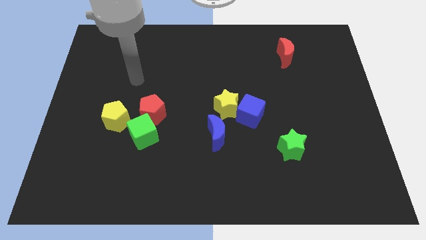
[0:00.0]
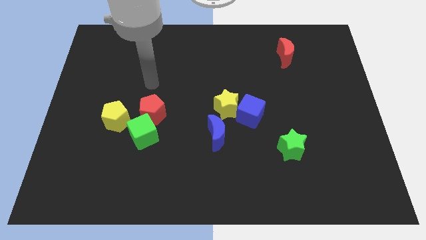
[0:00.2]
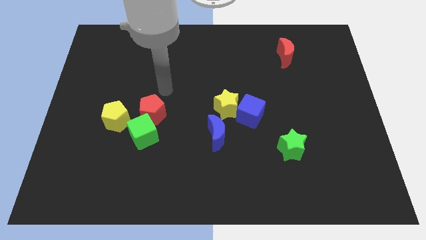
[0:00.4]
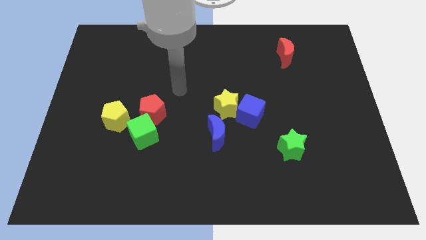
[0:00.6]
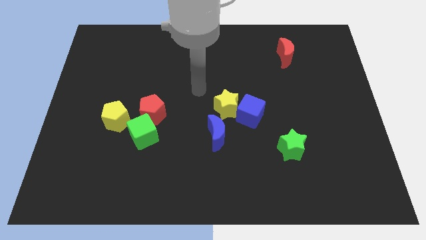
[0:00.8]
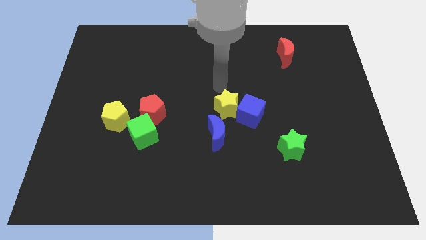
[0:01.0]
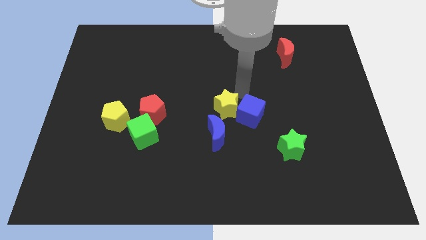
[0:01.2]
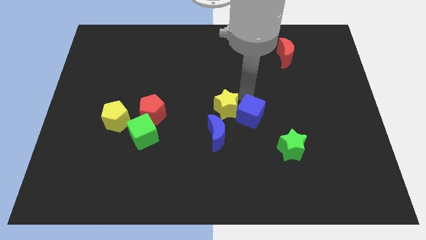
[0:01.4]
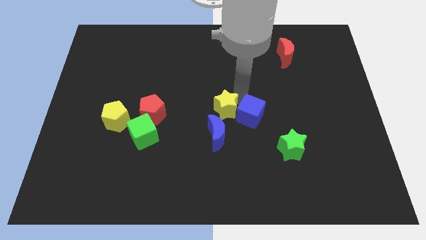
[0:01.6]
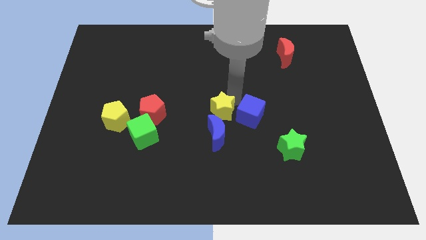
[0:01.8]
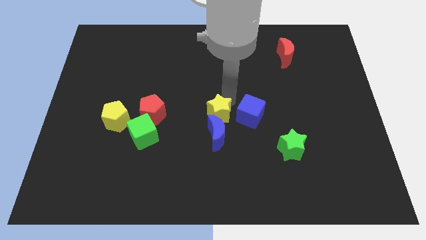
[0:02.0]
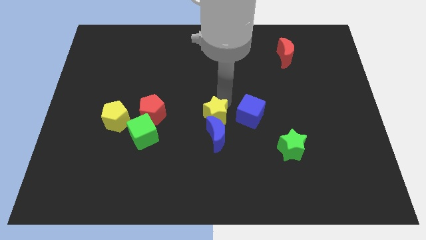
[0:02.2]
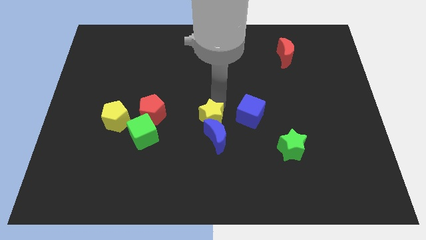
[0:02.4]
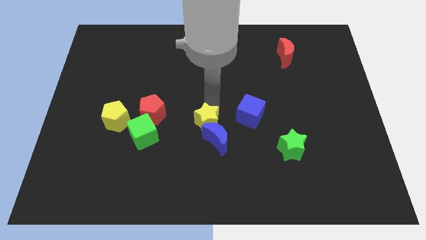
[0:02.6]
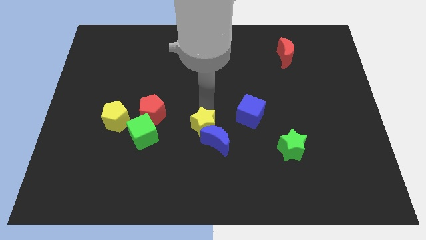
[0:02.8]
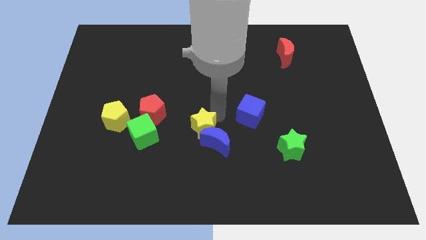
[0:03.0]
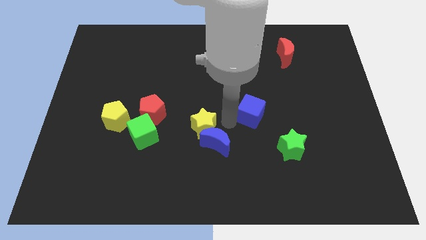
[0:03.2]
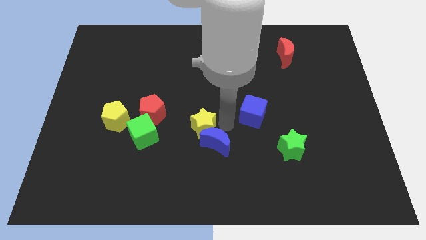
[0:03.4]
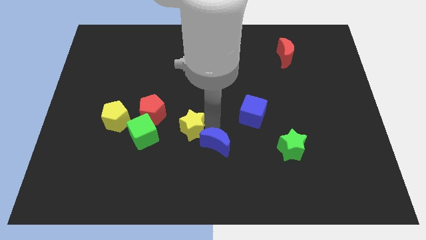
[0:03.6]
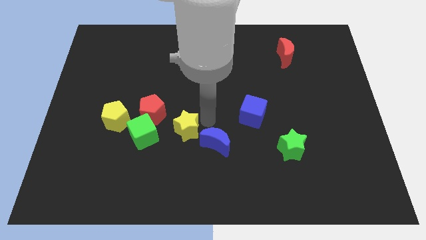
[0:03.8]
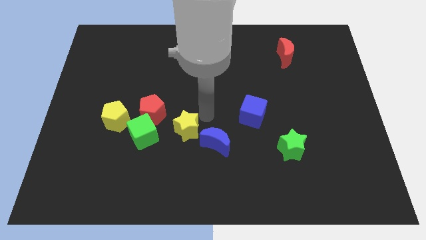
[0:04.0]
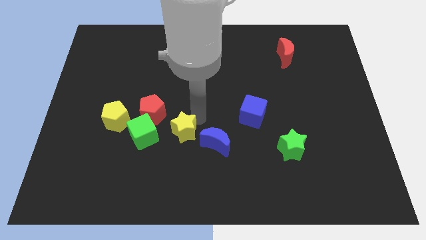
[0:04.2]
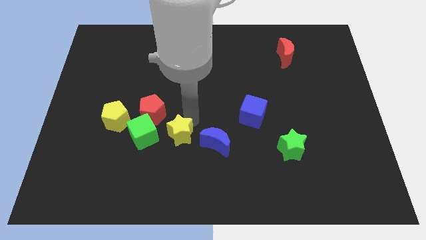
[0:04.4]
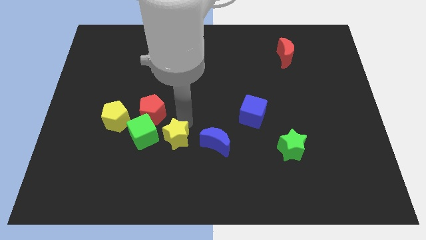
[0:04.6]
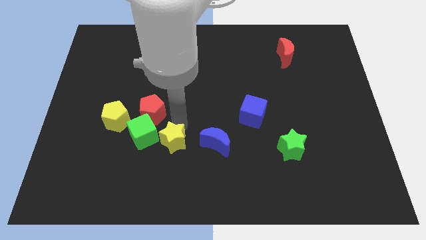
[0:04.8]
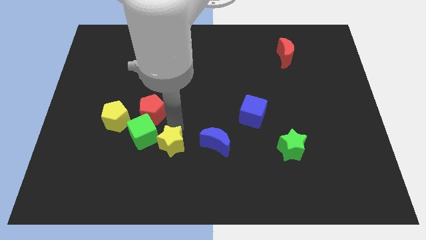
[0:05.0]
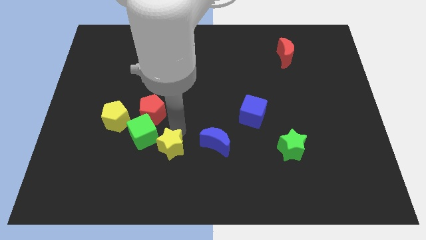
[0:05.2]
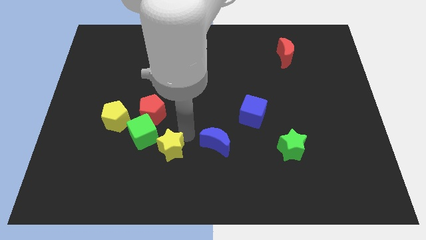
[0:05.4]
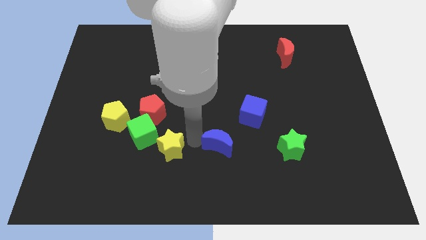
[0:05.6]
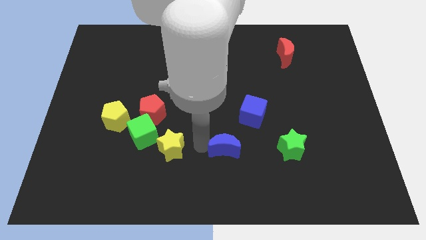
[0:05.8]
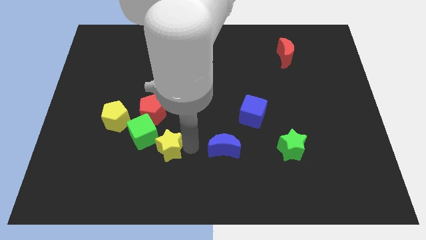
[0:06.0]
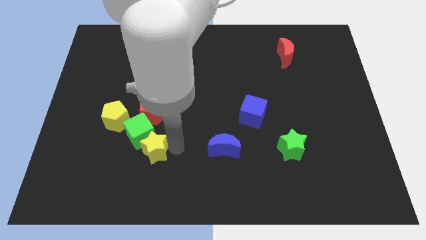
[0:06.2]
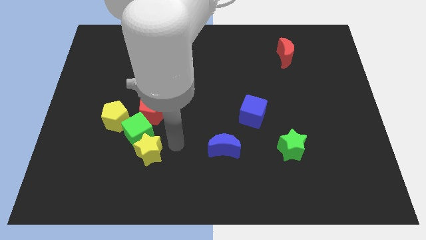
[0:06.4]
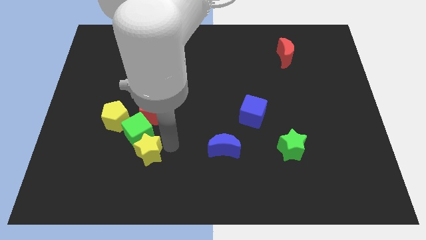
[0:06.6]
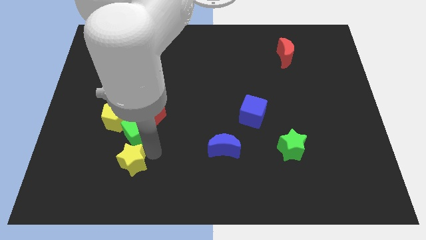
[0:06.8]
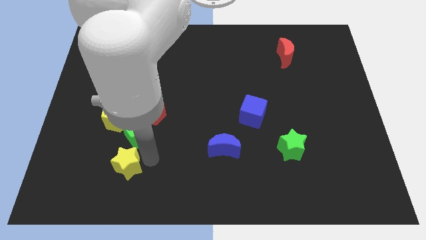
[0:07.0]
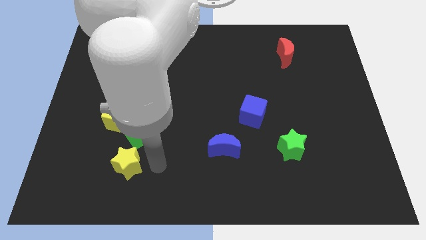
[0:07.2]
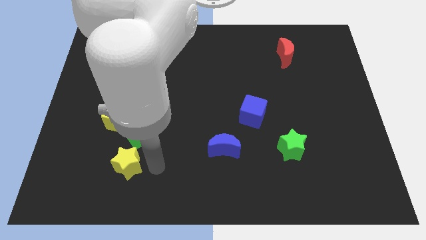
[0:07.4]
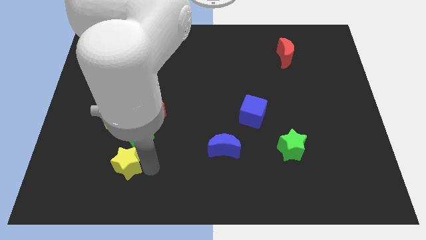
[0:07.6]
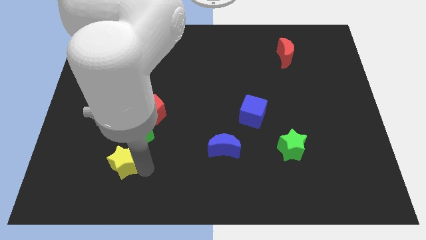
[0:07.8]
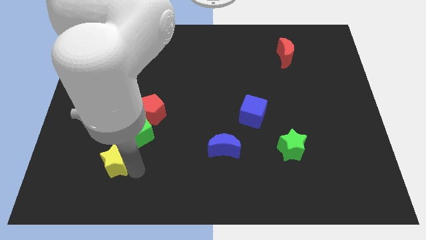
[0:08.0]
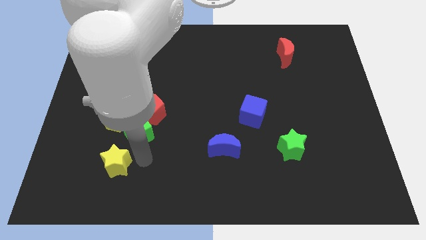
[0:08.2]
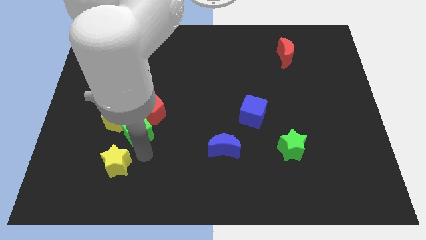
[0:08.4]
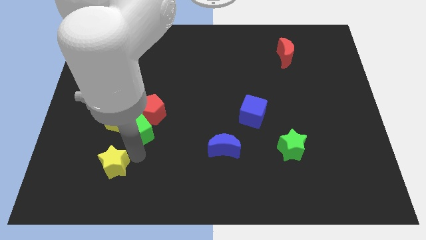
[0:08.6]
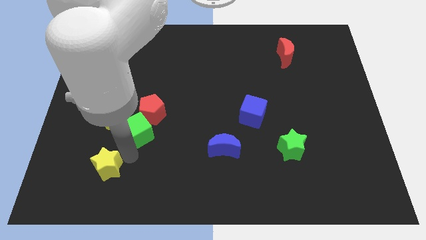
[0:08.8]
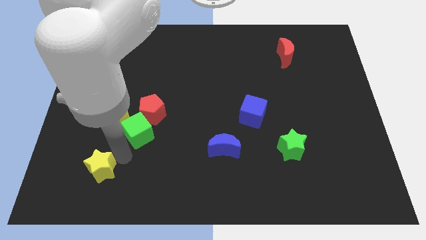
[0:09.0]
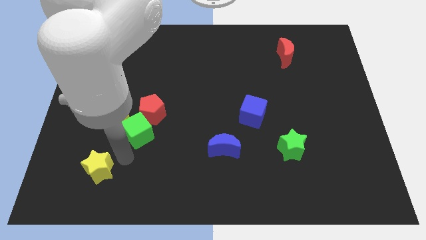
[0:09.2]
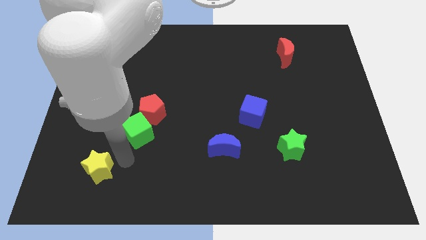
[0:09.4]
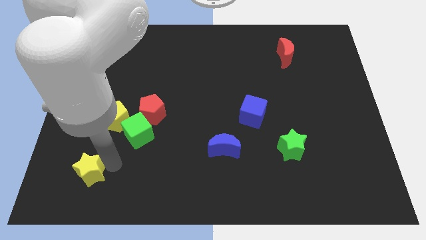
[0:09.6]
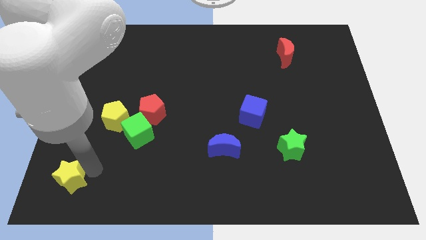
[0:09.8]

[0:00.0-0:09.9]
move the yellow star to the lower left corner

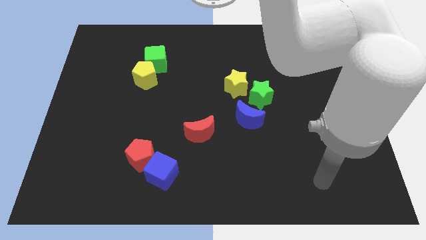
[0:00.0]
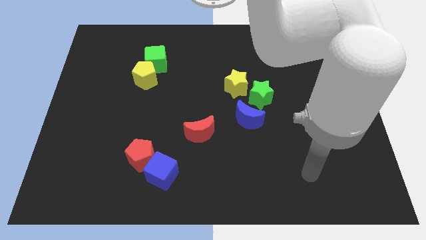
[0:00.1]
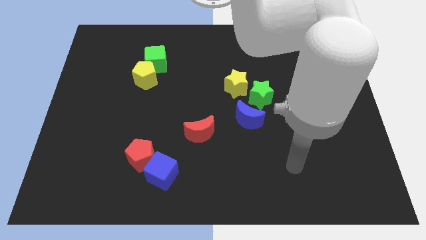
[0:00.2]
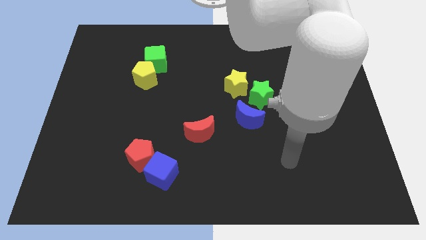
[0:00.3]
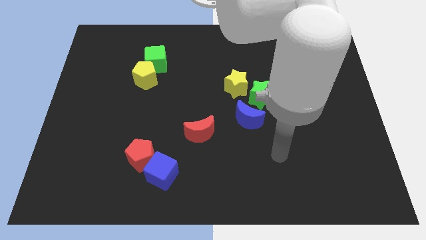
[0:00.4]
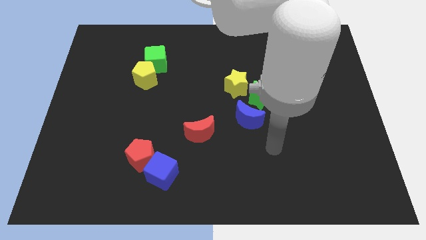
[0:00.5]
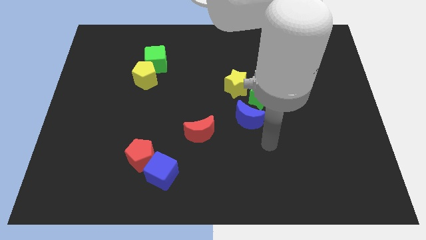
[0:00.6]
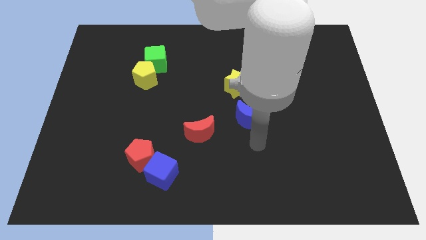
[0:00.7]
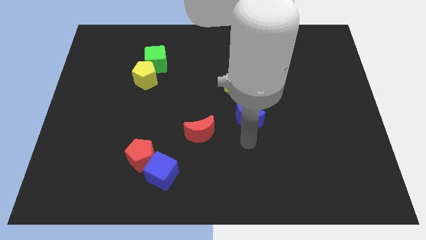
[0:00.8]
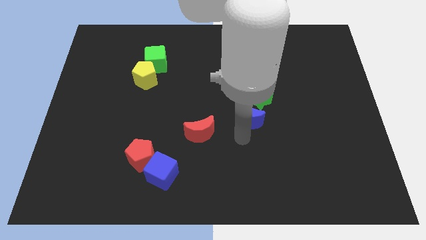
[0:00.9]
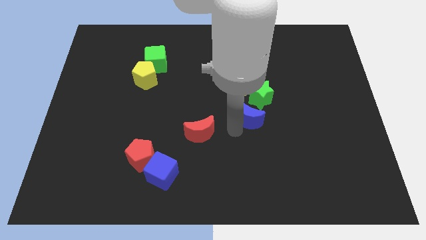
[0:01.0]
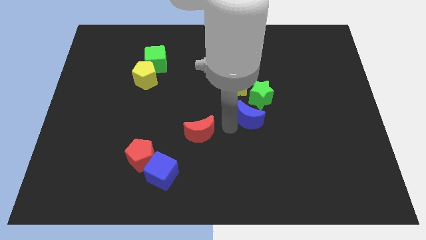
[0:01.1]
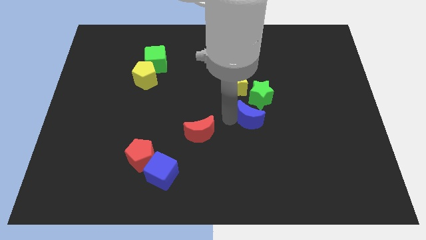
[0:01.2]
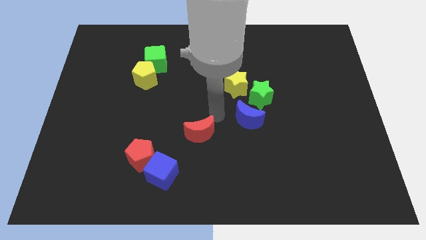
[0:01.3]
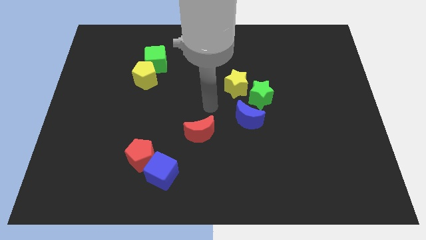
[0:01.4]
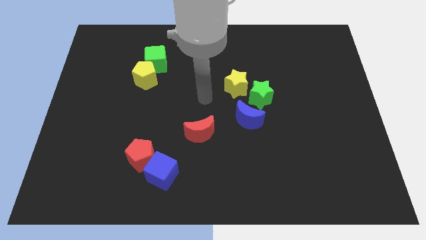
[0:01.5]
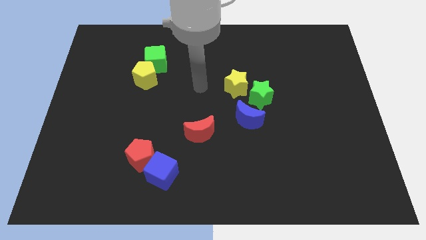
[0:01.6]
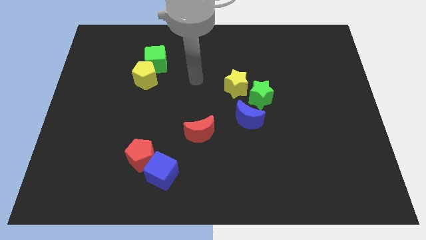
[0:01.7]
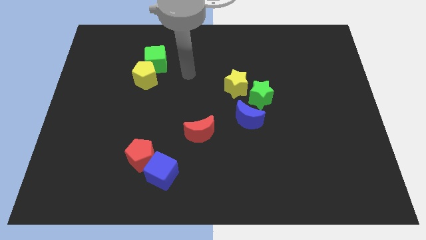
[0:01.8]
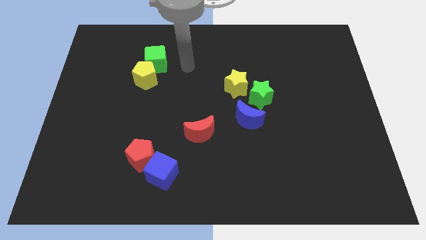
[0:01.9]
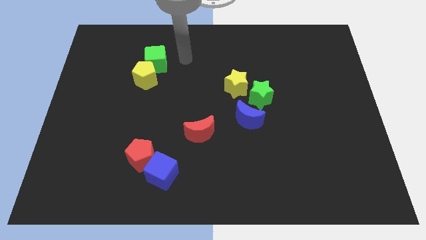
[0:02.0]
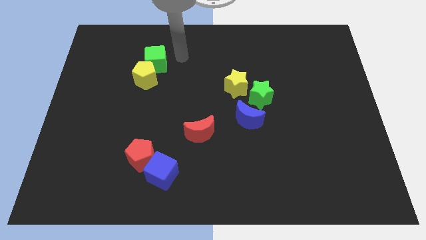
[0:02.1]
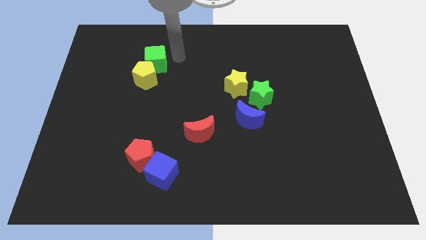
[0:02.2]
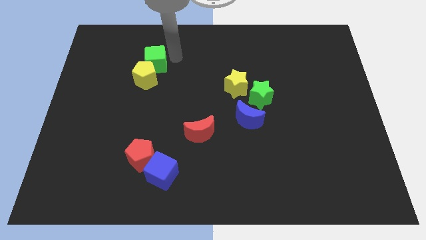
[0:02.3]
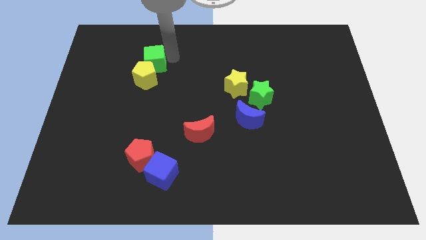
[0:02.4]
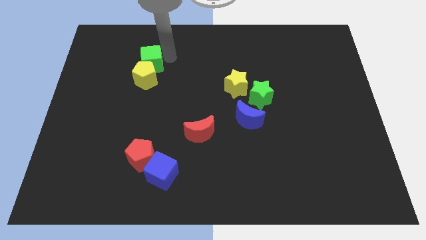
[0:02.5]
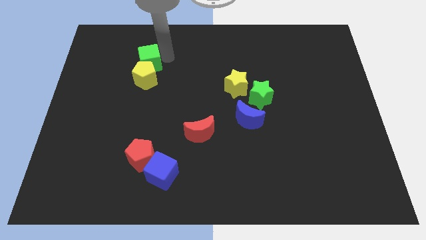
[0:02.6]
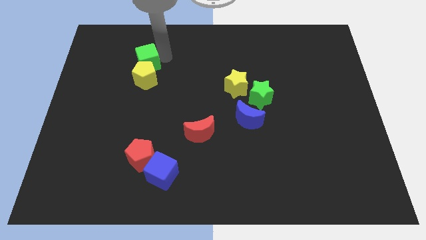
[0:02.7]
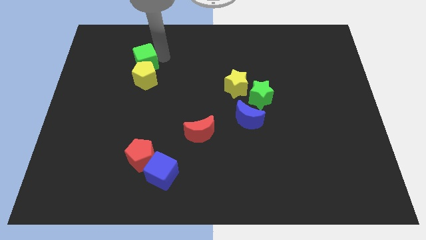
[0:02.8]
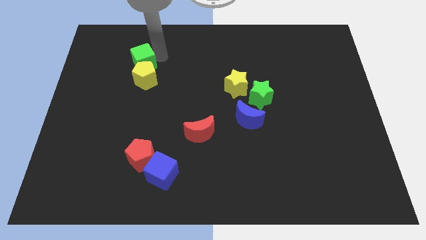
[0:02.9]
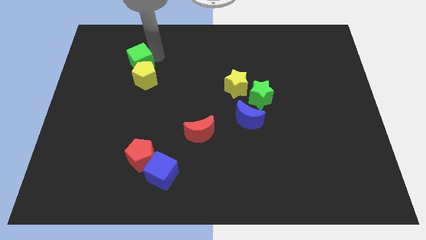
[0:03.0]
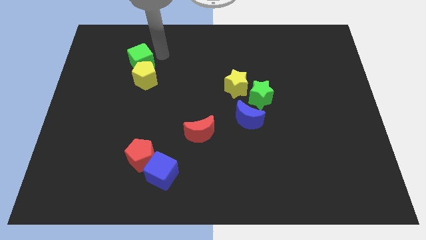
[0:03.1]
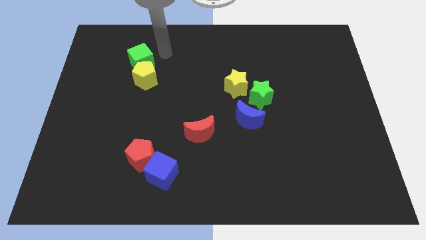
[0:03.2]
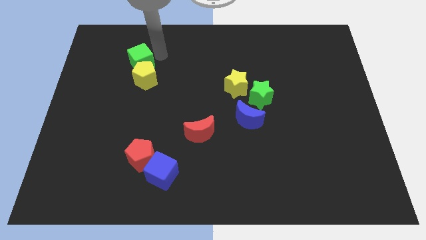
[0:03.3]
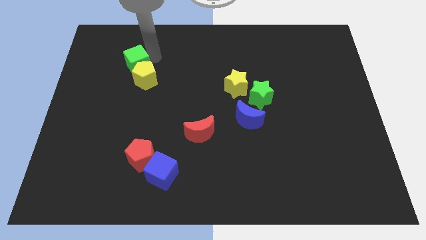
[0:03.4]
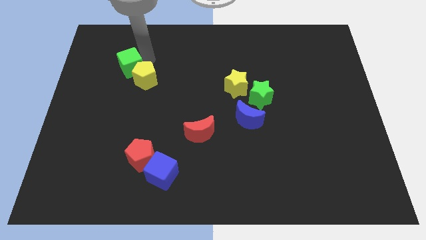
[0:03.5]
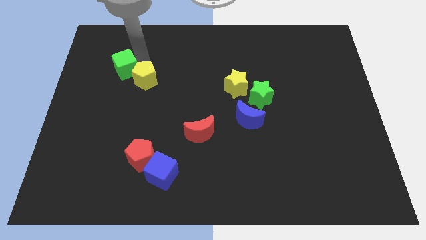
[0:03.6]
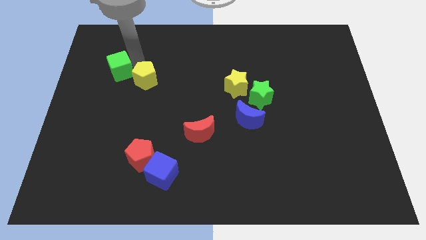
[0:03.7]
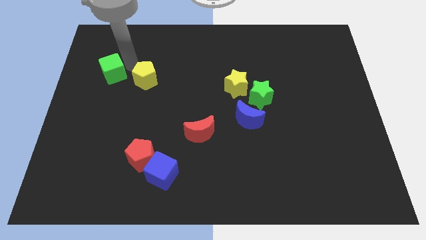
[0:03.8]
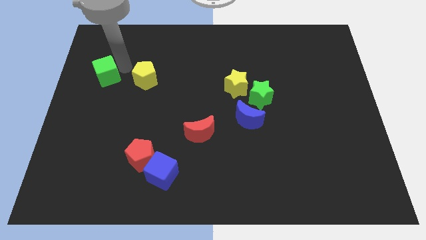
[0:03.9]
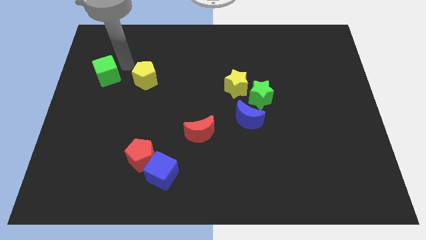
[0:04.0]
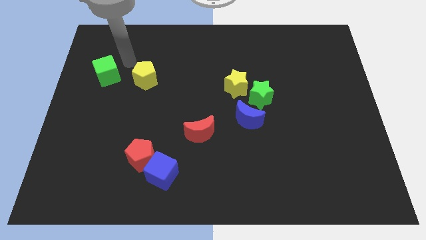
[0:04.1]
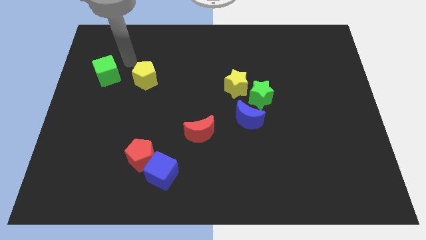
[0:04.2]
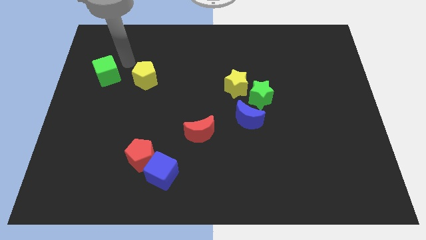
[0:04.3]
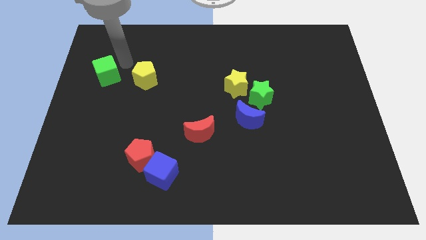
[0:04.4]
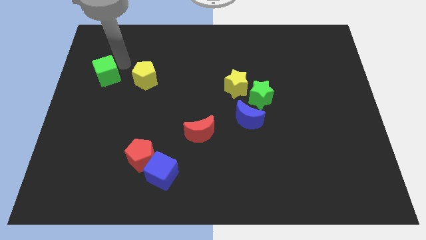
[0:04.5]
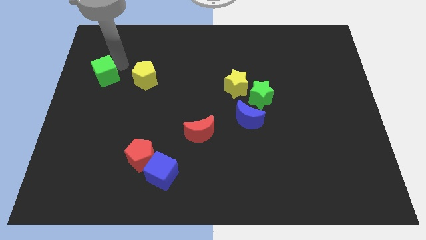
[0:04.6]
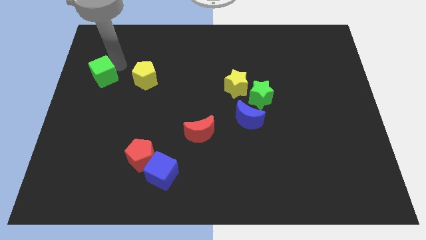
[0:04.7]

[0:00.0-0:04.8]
push the green cube to the center left
